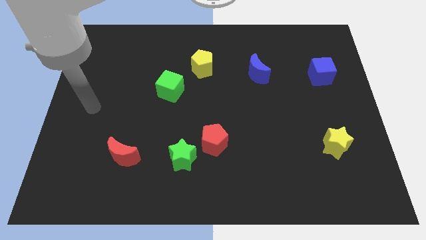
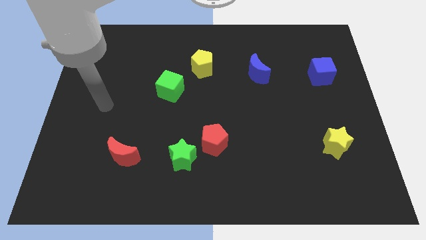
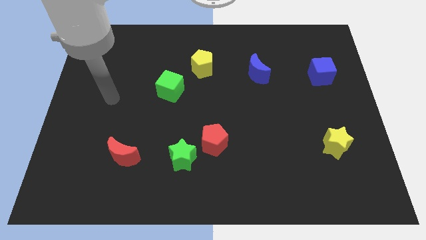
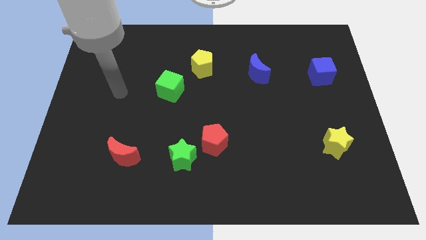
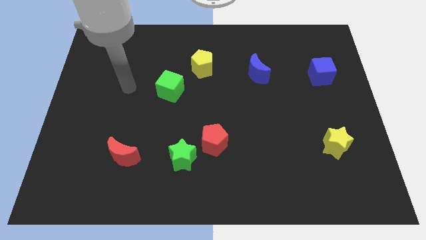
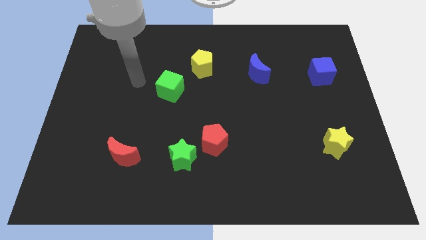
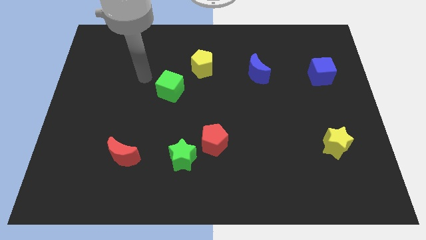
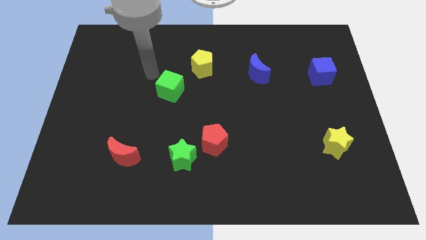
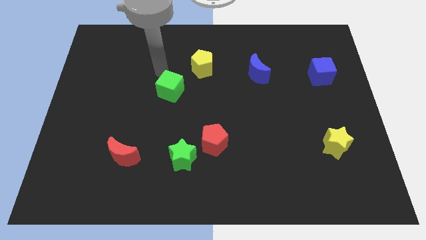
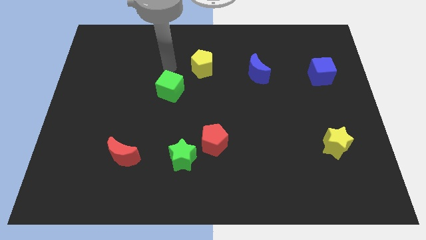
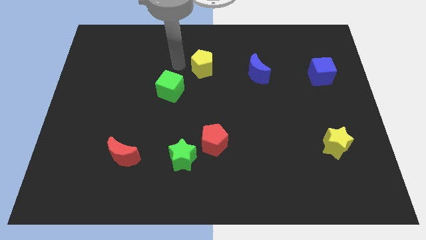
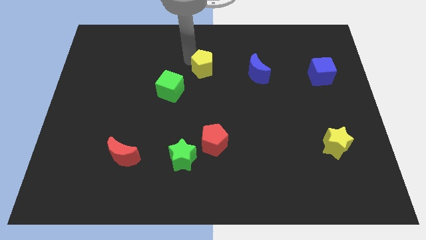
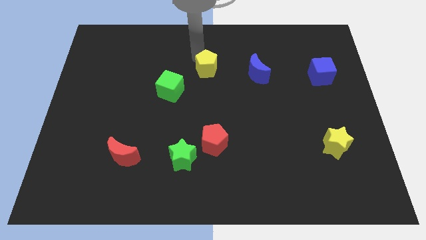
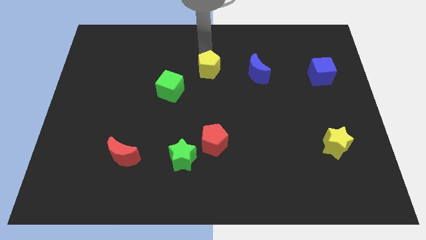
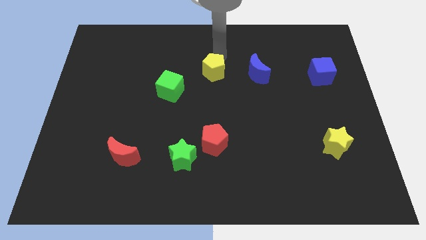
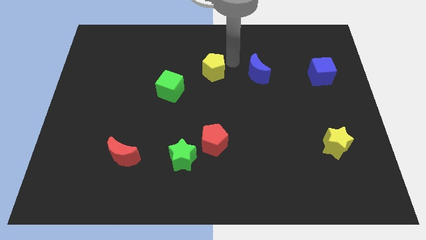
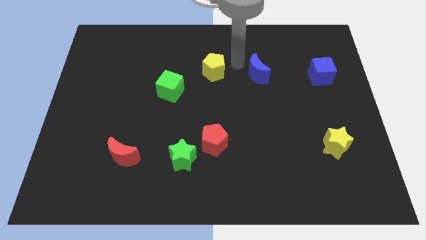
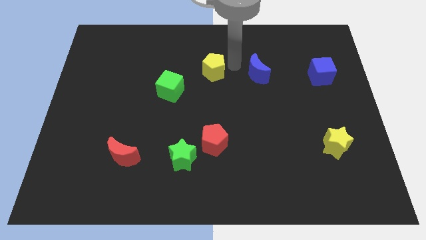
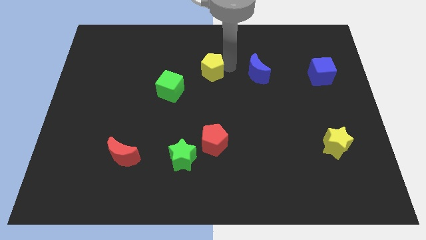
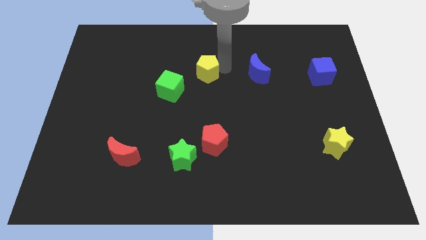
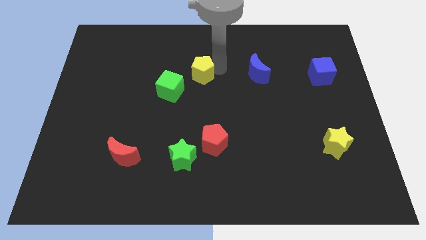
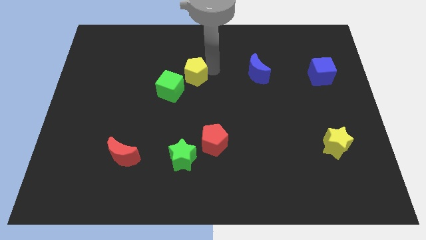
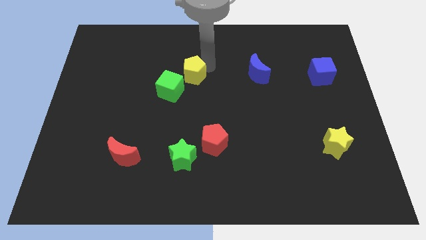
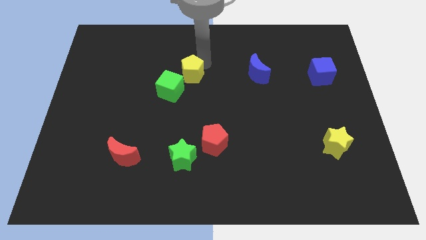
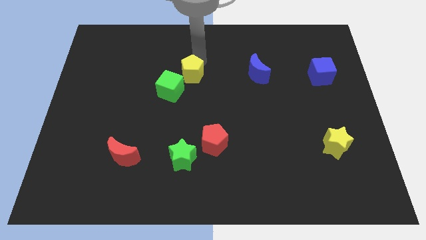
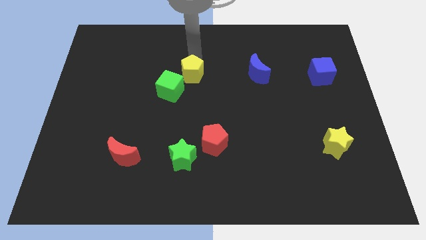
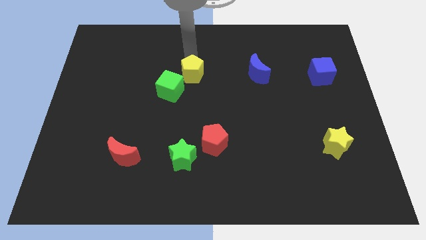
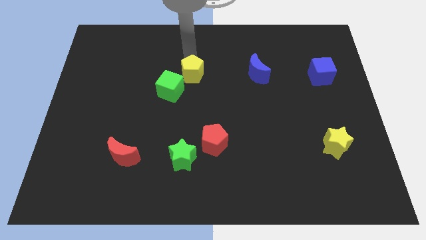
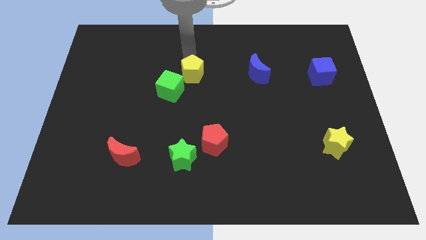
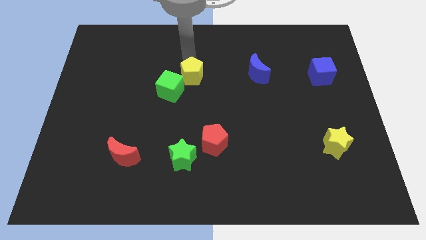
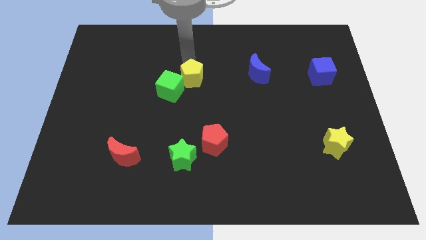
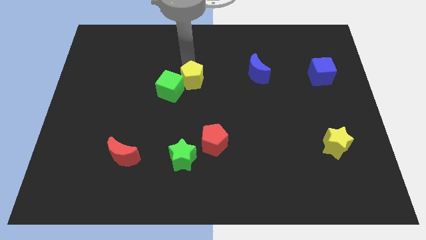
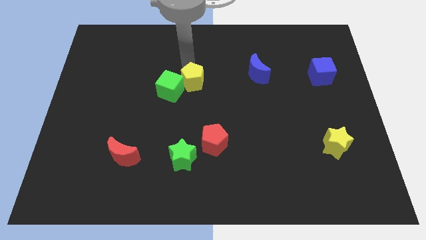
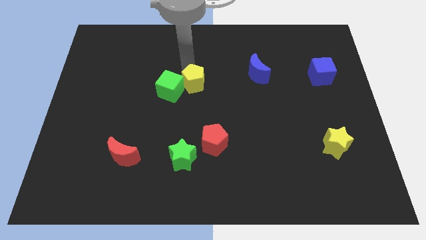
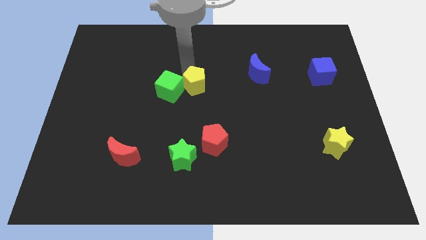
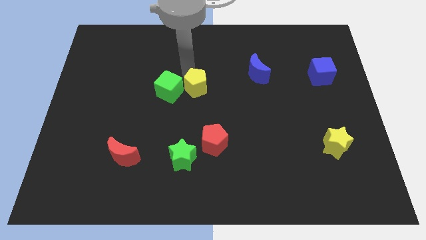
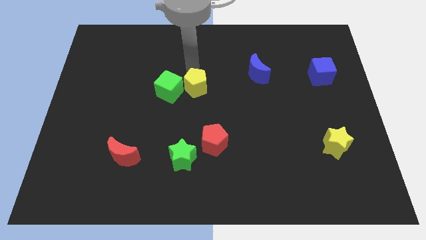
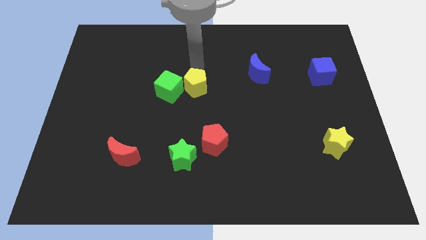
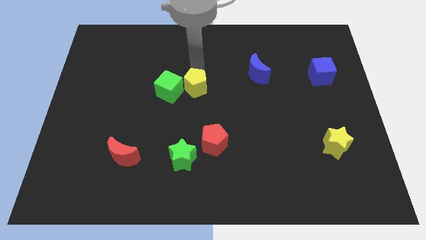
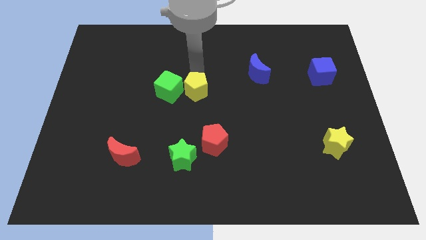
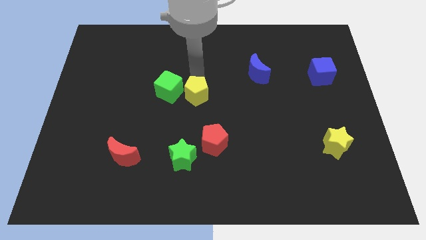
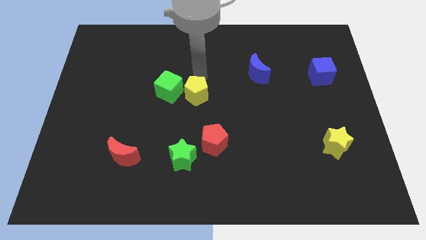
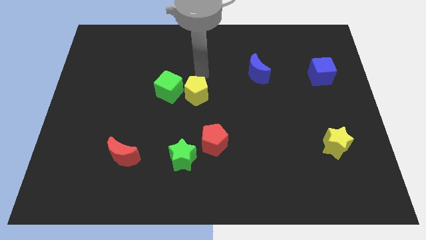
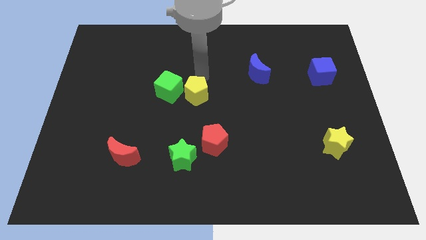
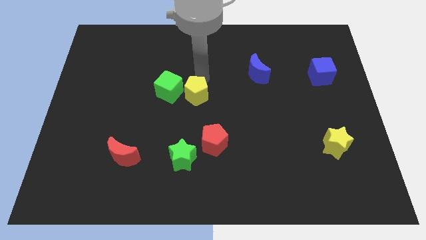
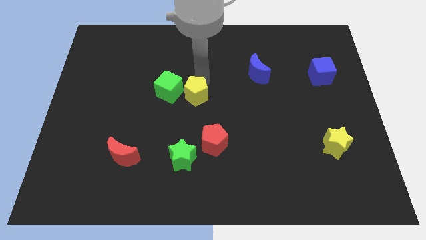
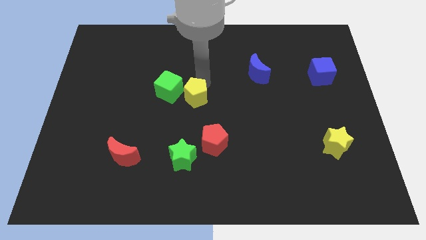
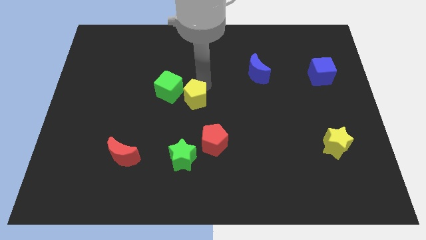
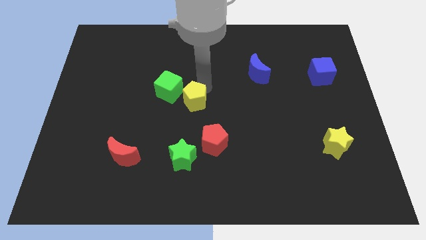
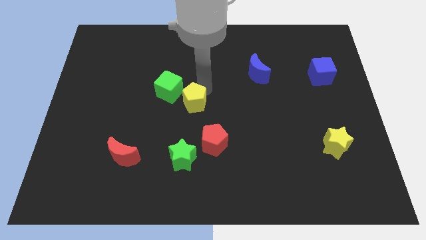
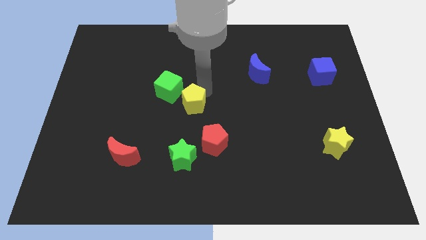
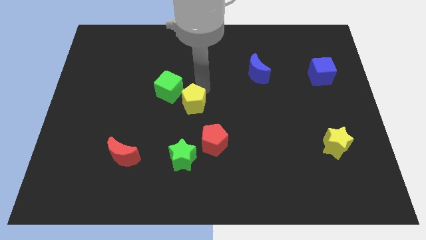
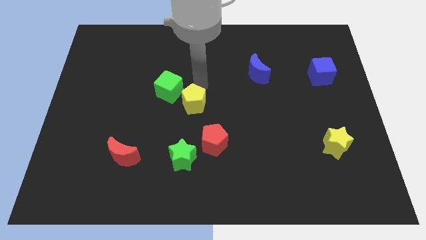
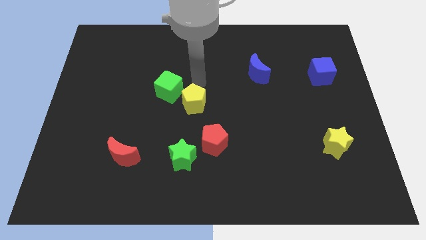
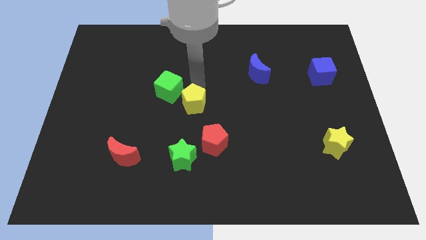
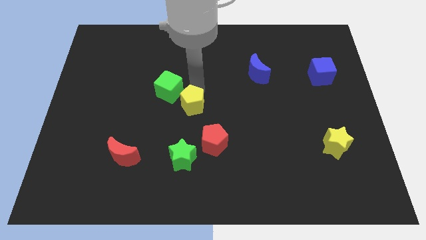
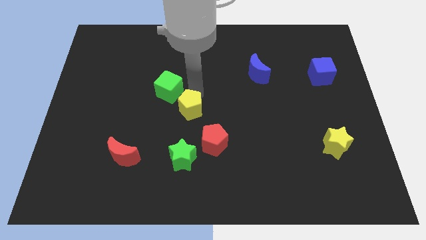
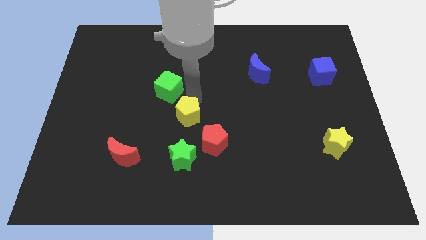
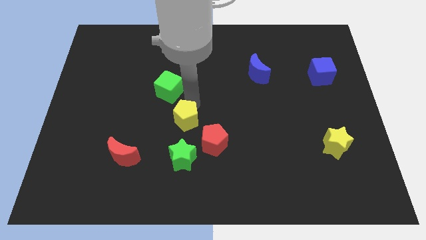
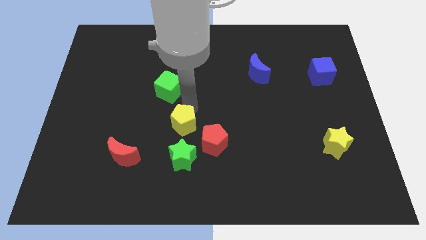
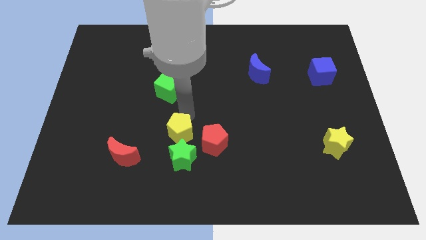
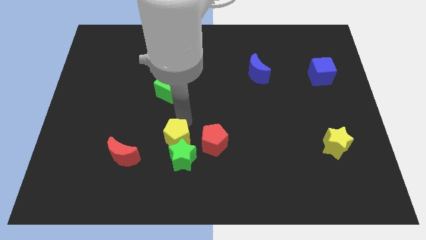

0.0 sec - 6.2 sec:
push the yellow pentagon to the green star
